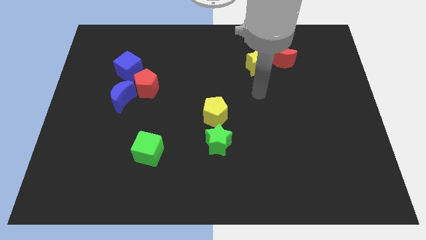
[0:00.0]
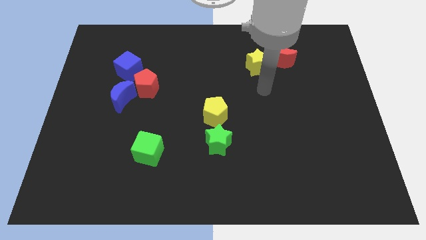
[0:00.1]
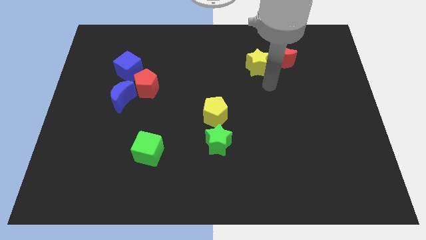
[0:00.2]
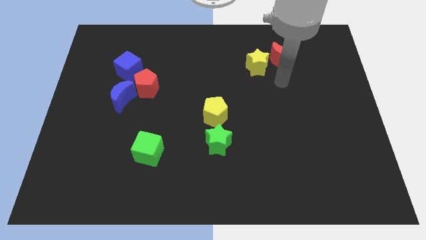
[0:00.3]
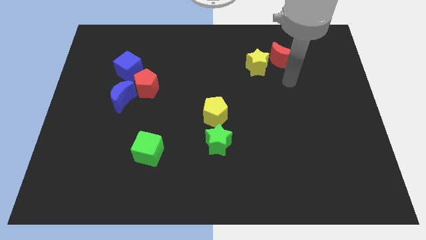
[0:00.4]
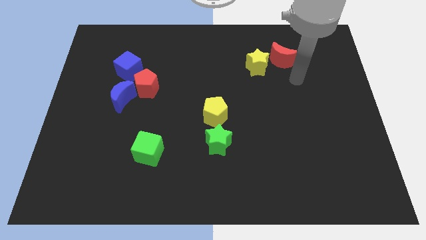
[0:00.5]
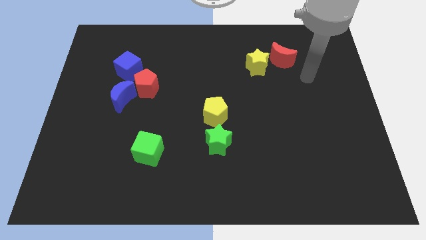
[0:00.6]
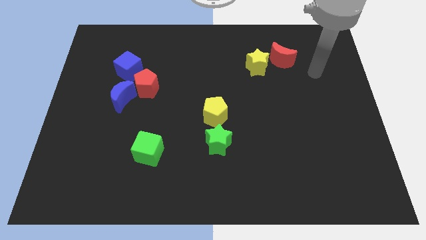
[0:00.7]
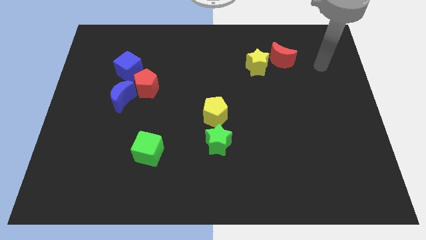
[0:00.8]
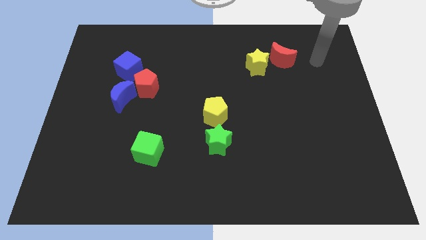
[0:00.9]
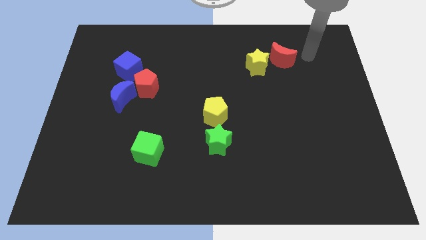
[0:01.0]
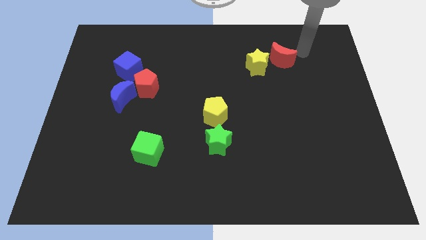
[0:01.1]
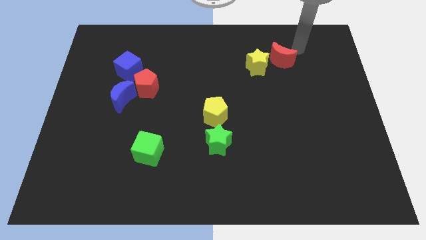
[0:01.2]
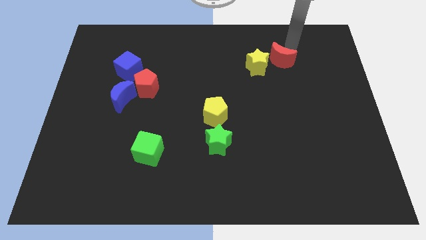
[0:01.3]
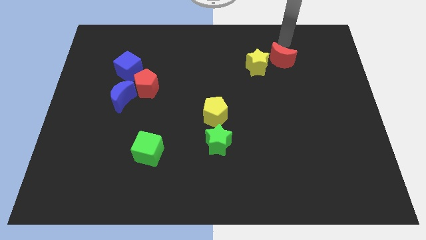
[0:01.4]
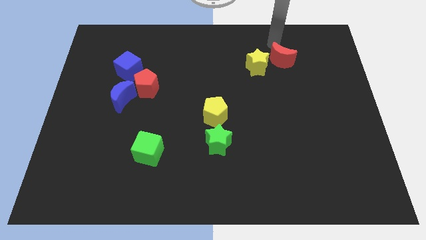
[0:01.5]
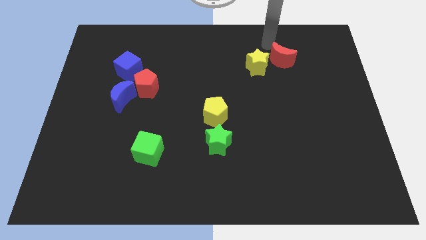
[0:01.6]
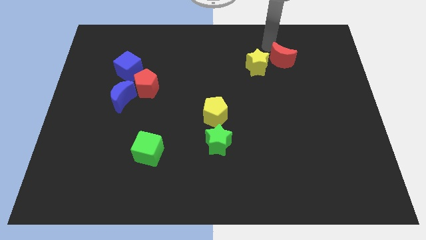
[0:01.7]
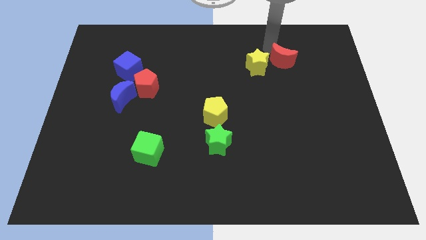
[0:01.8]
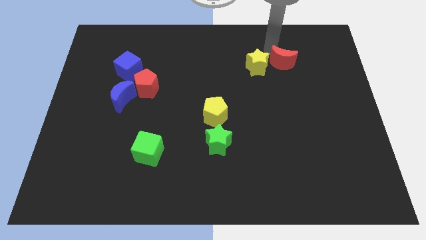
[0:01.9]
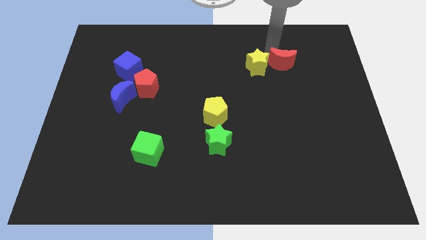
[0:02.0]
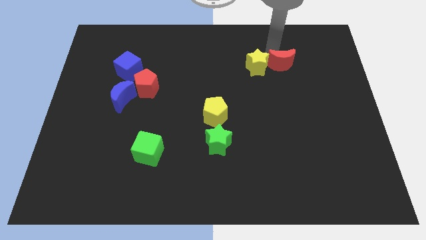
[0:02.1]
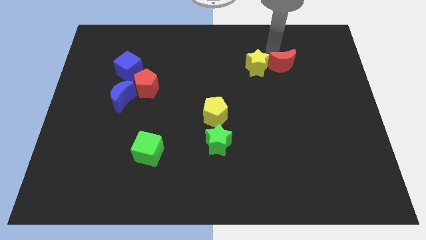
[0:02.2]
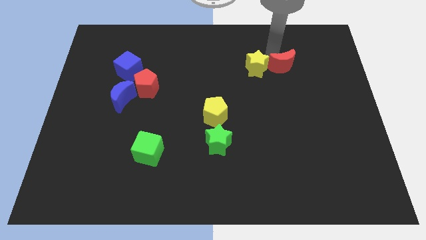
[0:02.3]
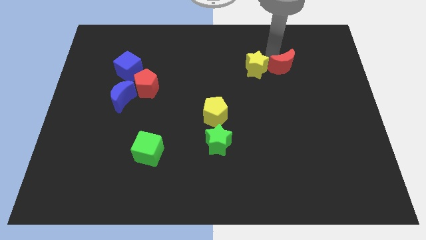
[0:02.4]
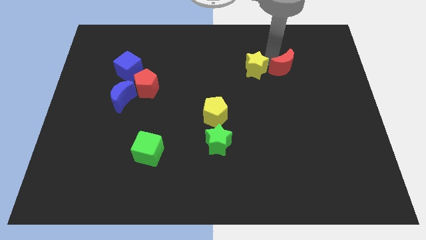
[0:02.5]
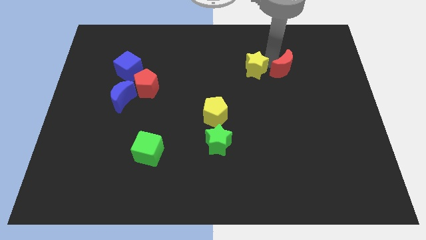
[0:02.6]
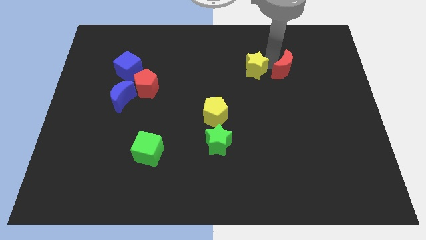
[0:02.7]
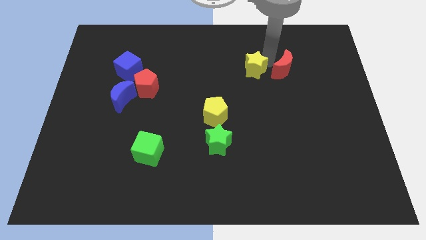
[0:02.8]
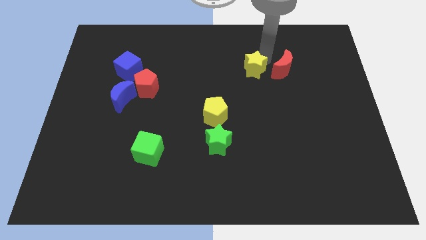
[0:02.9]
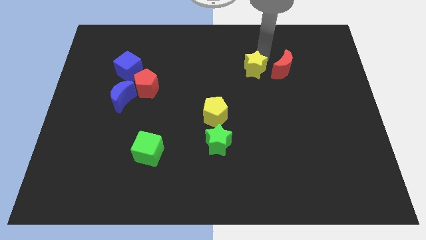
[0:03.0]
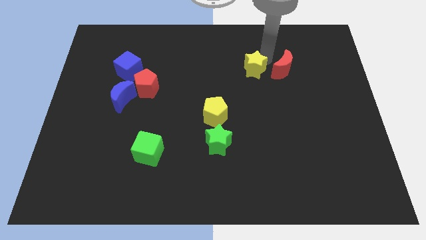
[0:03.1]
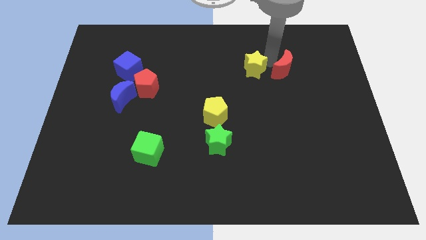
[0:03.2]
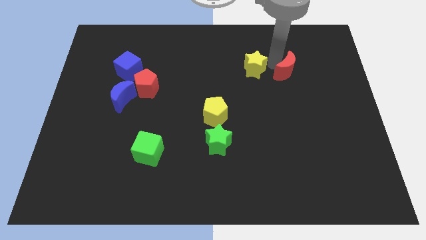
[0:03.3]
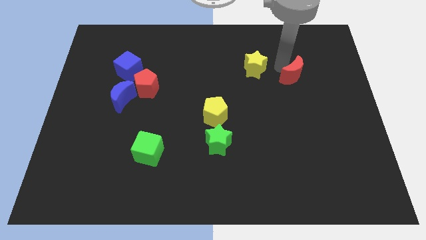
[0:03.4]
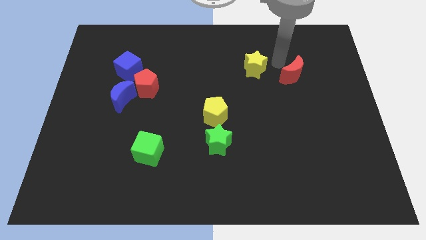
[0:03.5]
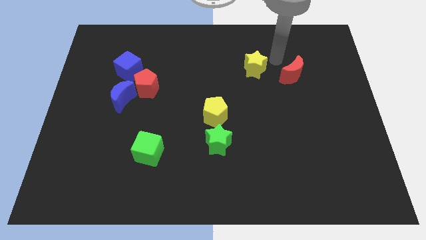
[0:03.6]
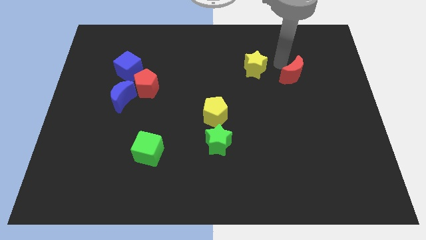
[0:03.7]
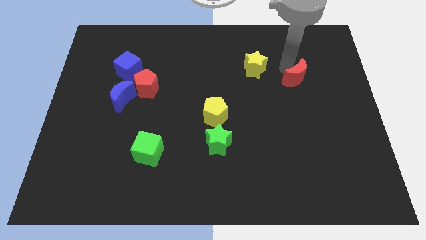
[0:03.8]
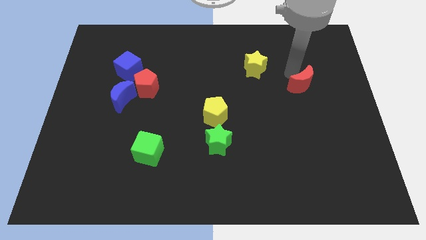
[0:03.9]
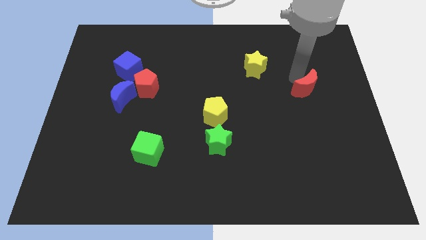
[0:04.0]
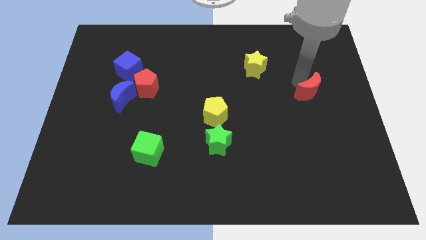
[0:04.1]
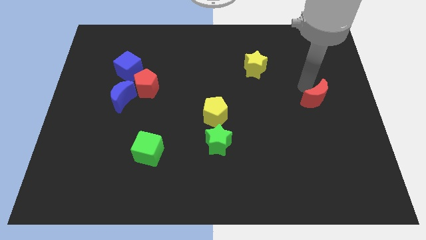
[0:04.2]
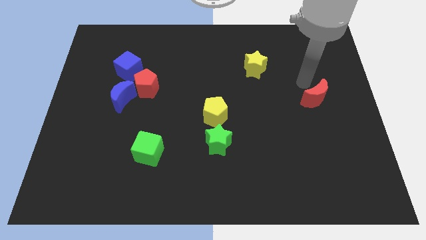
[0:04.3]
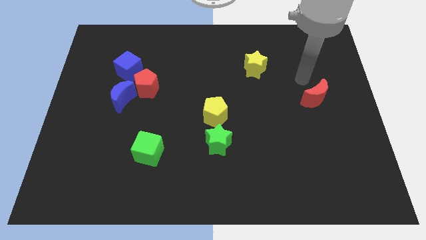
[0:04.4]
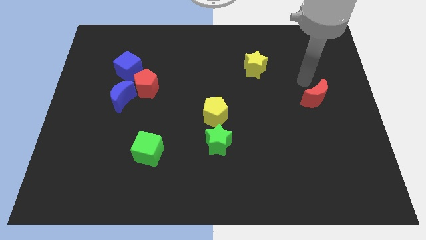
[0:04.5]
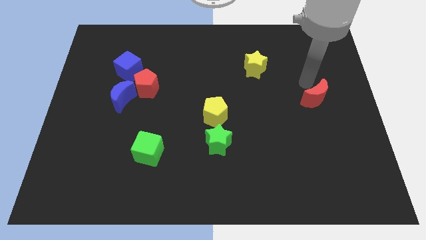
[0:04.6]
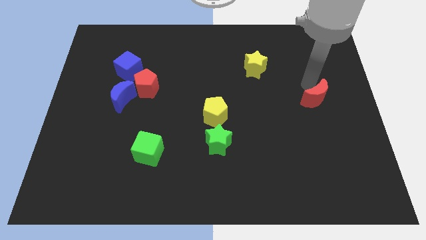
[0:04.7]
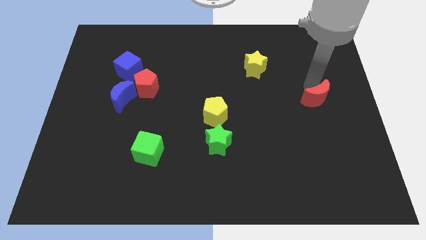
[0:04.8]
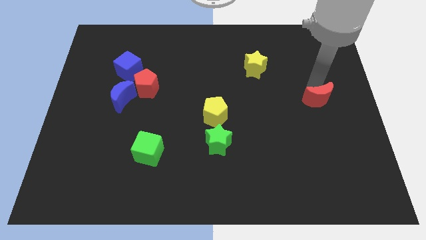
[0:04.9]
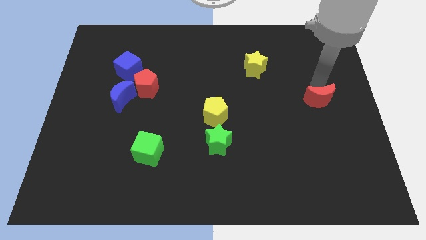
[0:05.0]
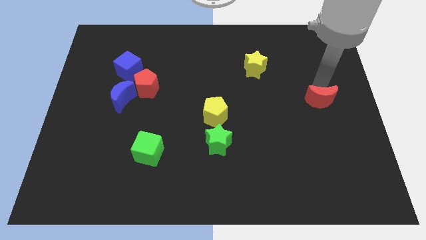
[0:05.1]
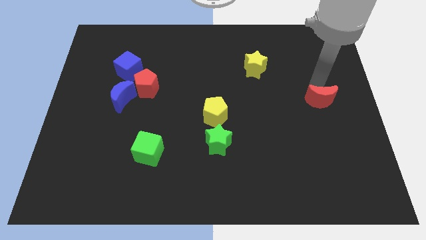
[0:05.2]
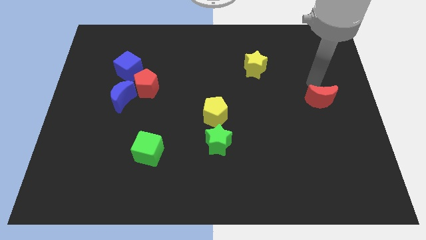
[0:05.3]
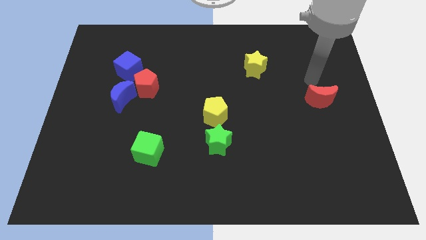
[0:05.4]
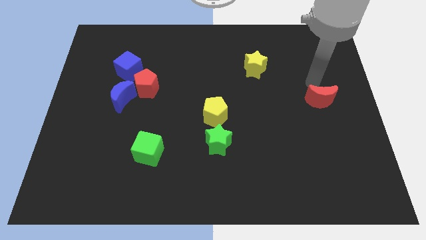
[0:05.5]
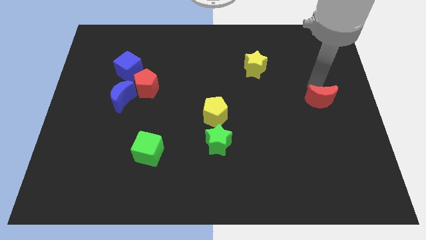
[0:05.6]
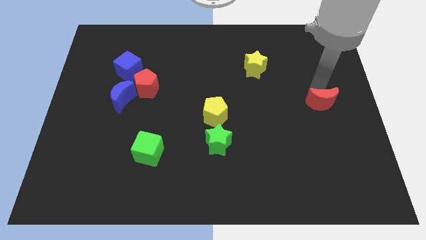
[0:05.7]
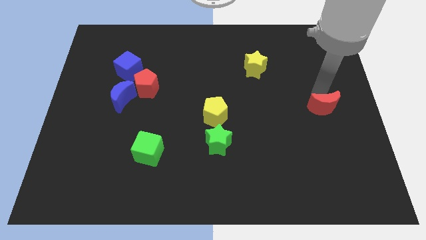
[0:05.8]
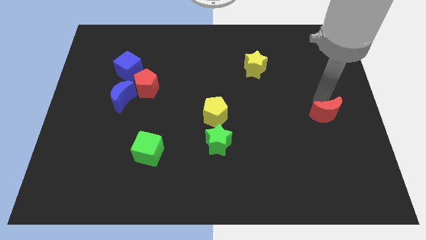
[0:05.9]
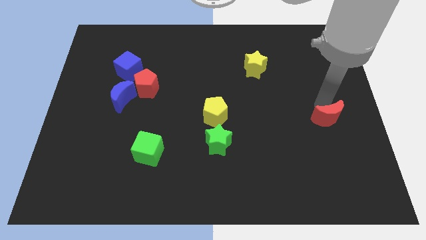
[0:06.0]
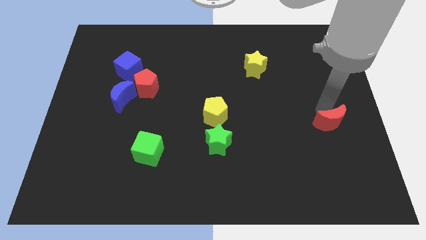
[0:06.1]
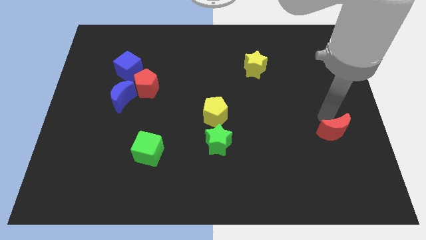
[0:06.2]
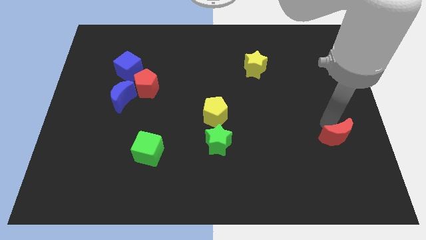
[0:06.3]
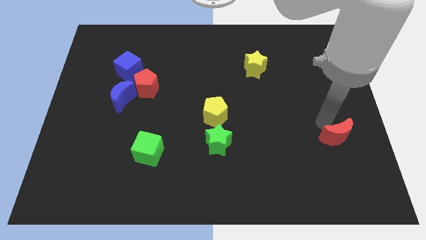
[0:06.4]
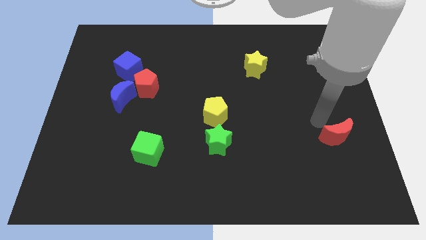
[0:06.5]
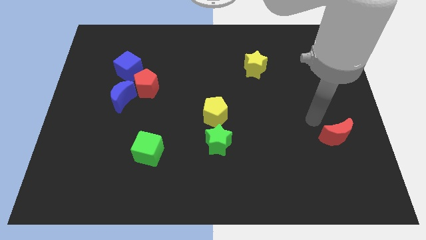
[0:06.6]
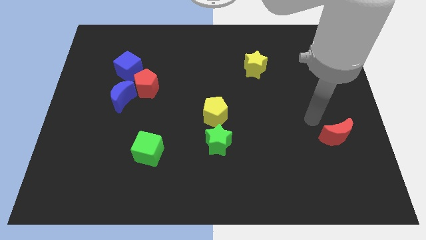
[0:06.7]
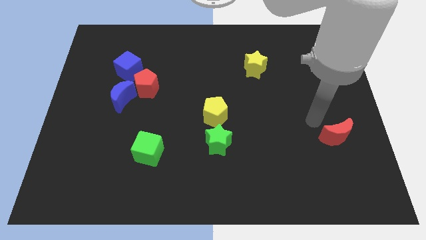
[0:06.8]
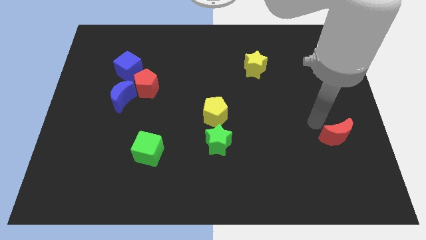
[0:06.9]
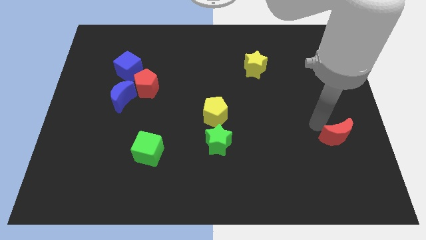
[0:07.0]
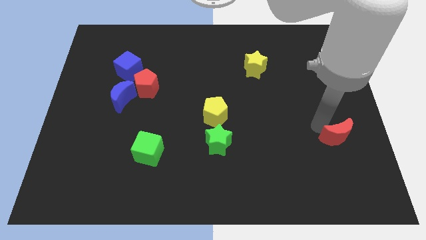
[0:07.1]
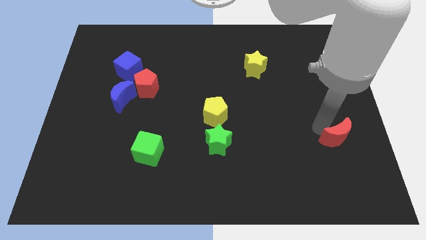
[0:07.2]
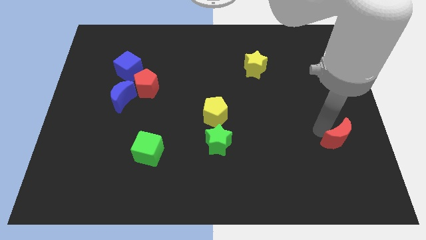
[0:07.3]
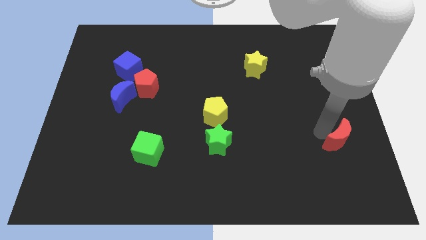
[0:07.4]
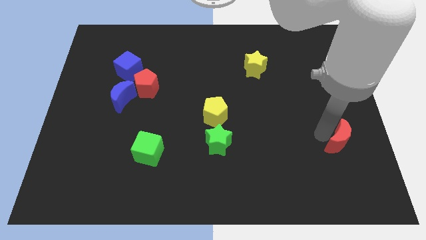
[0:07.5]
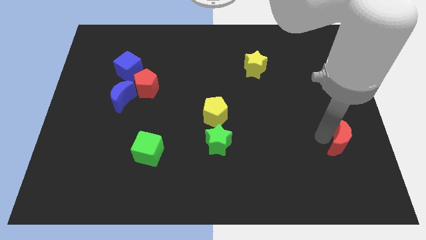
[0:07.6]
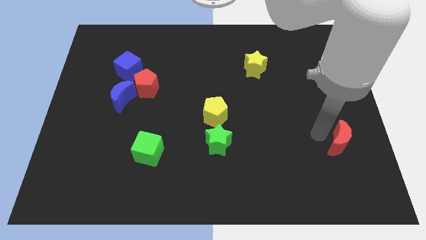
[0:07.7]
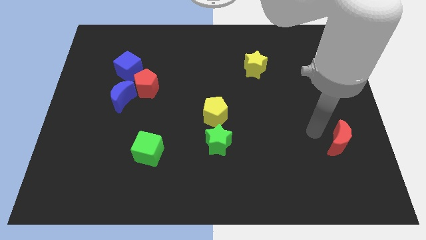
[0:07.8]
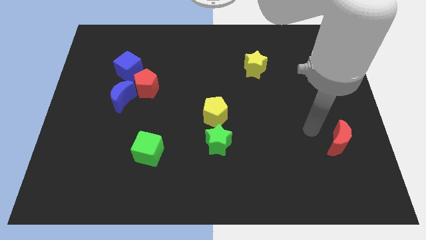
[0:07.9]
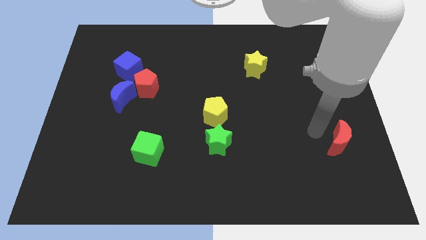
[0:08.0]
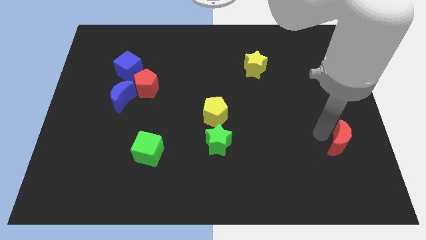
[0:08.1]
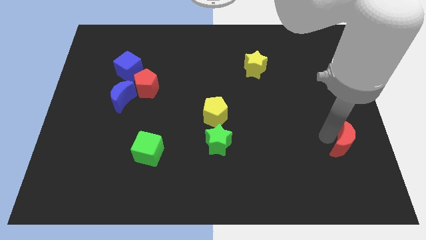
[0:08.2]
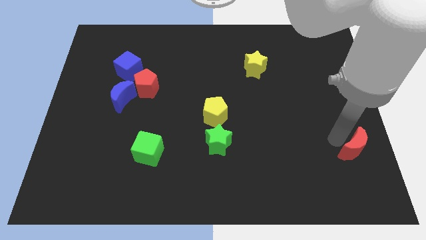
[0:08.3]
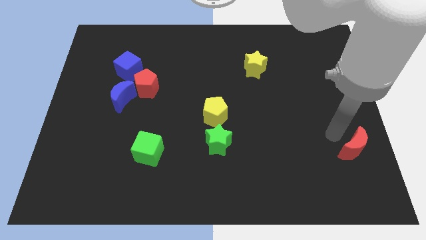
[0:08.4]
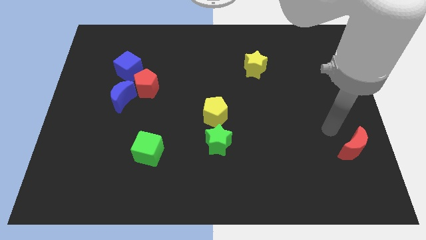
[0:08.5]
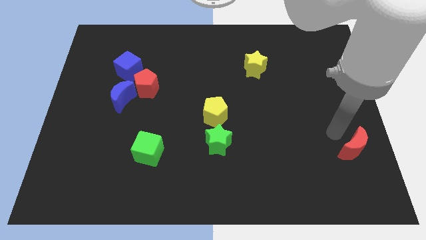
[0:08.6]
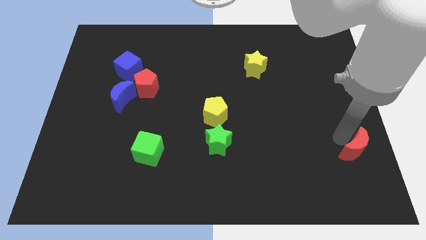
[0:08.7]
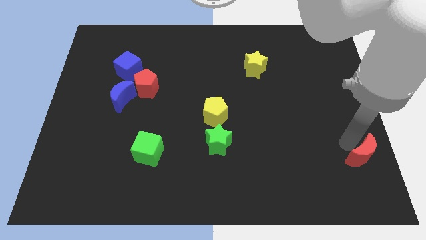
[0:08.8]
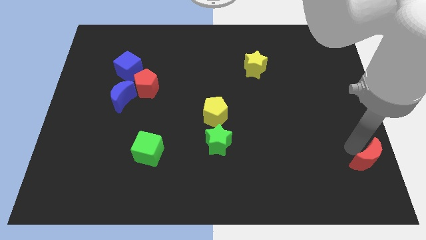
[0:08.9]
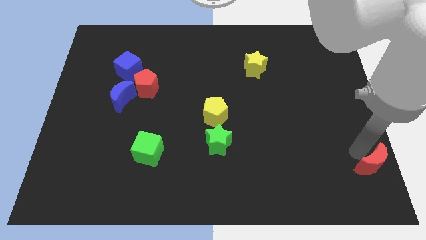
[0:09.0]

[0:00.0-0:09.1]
move the red moon to the lower right corner
